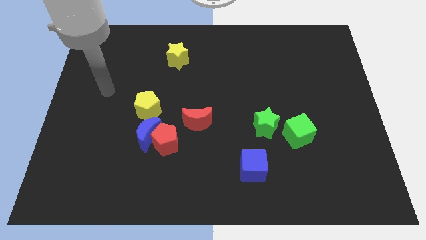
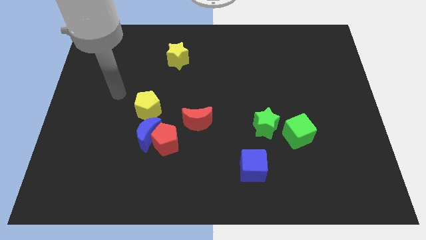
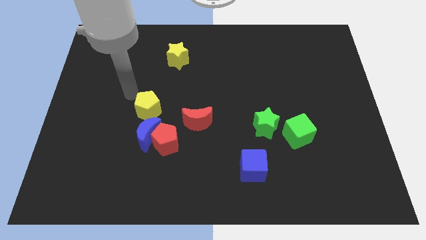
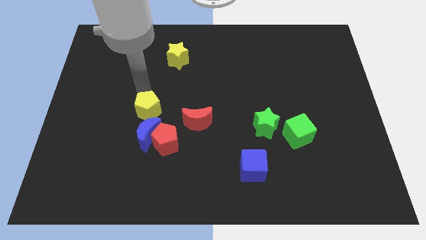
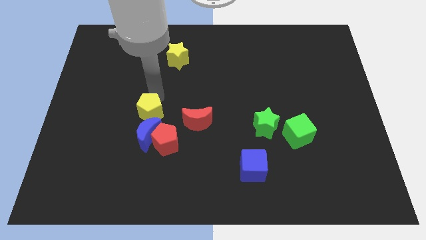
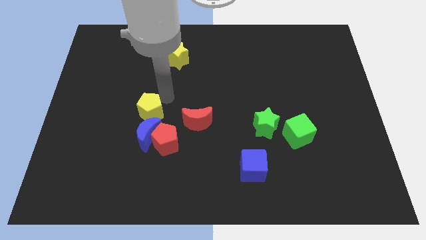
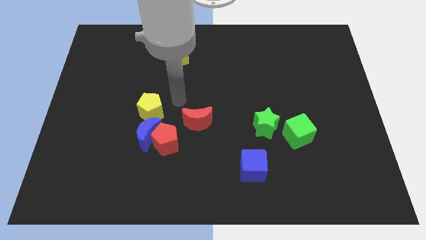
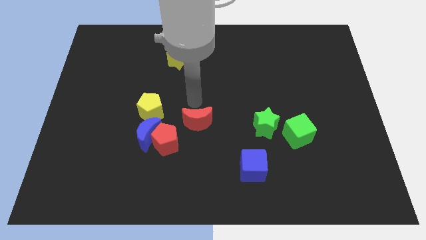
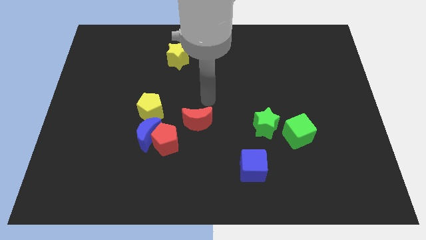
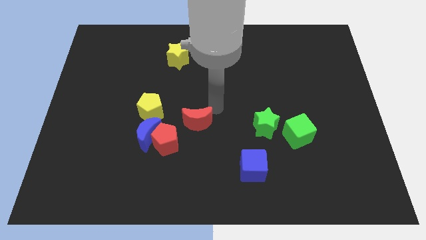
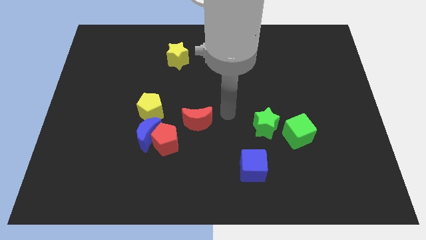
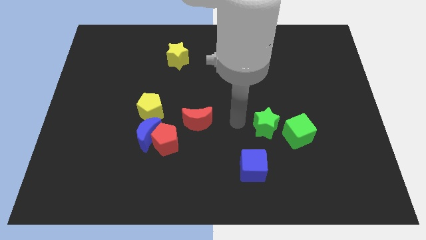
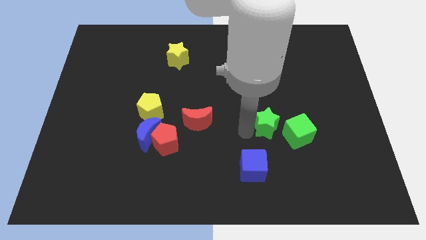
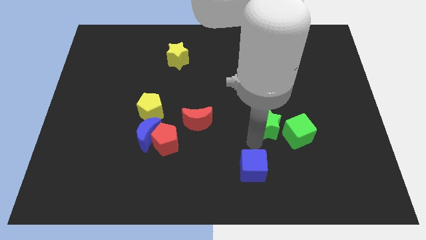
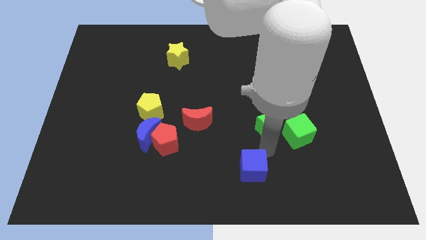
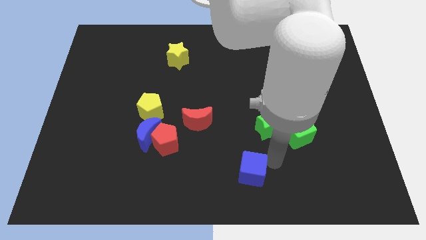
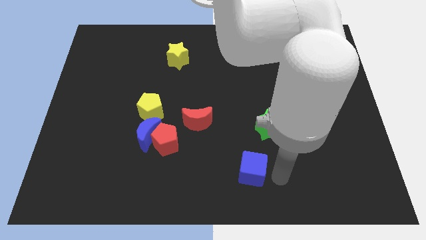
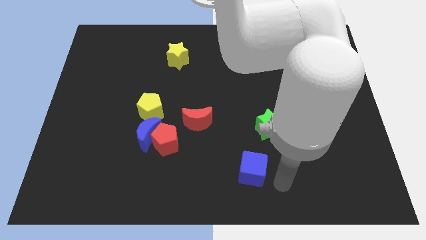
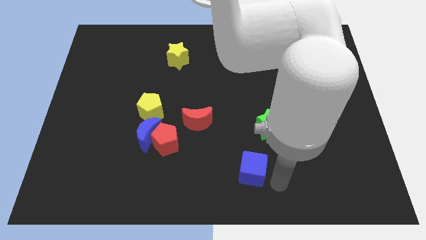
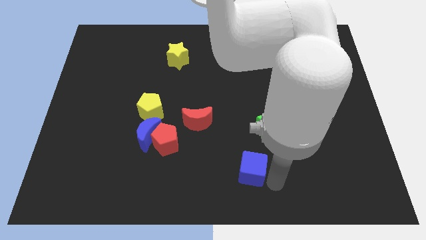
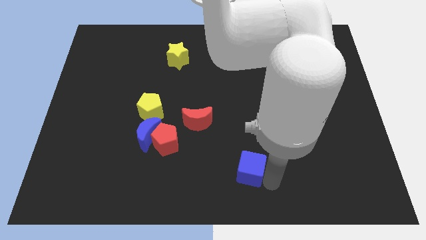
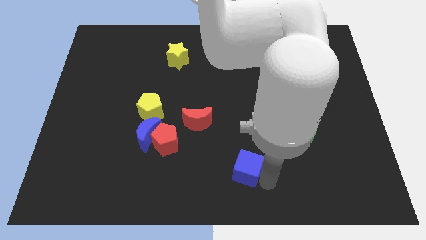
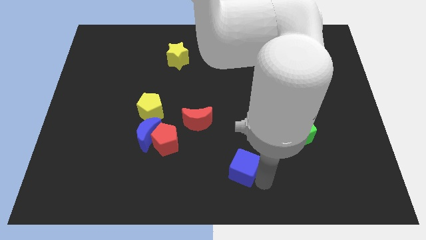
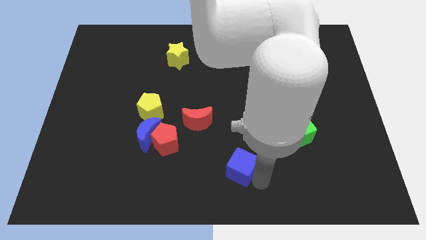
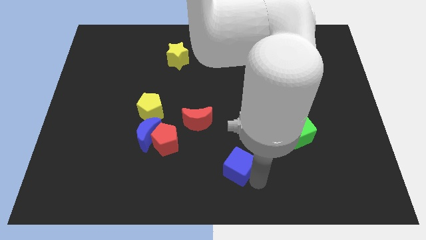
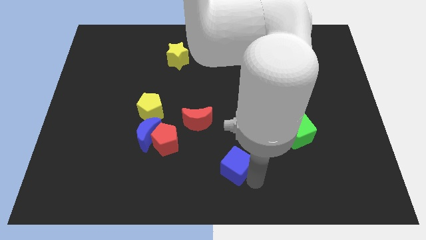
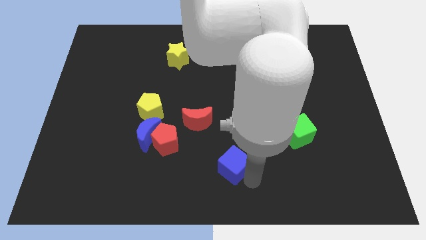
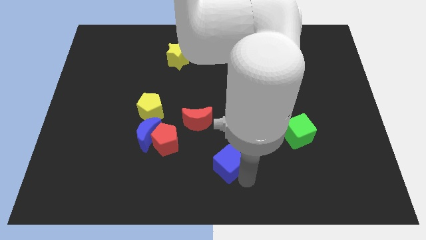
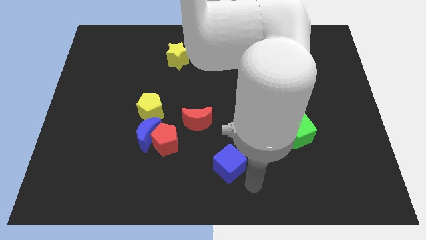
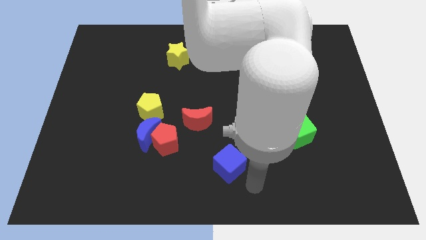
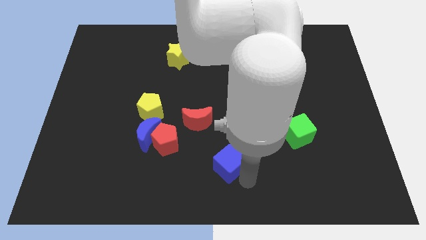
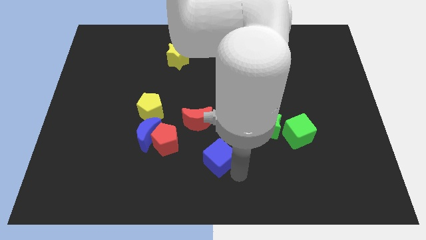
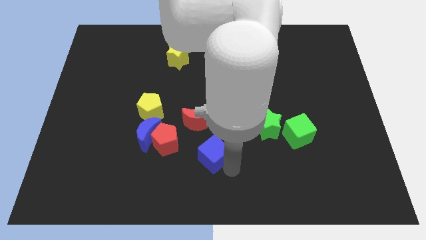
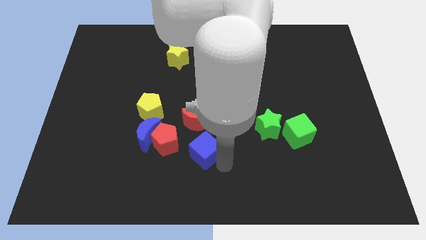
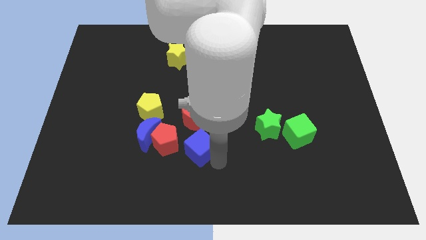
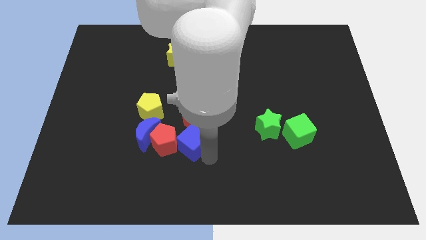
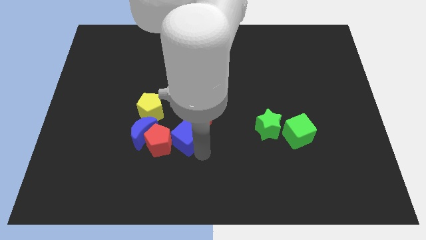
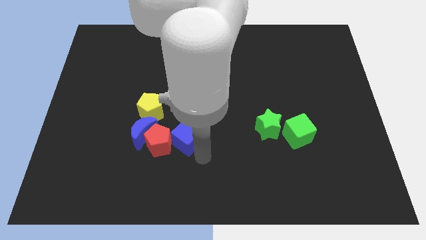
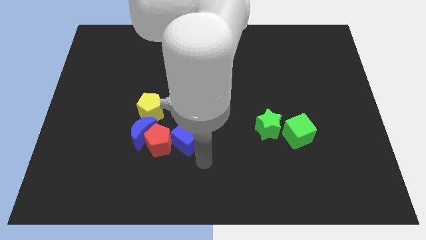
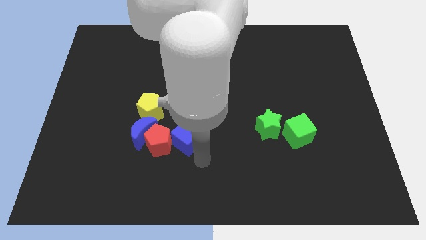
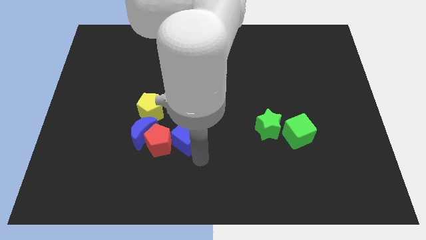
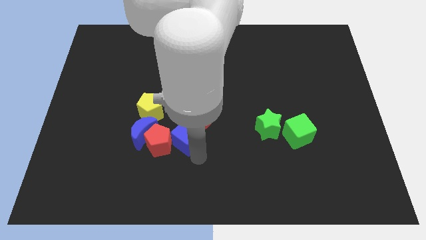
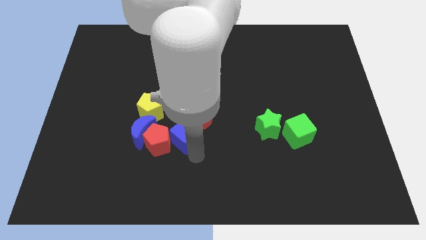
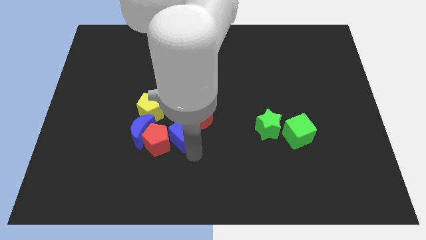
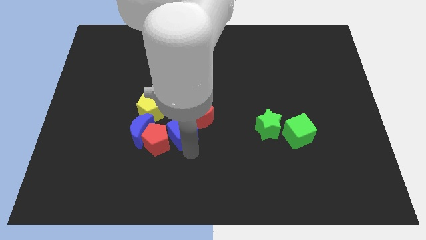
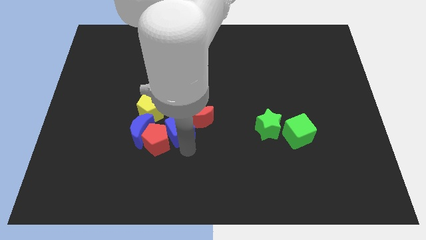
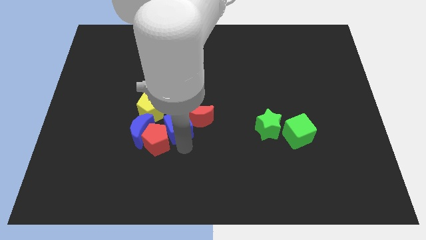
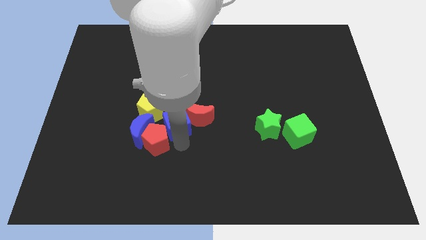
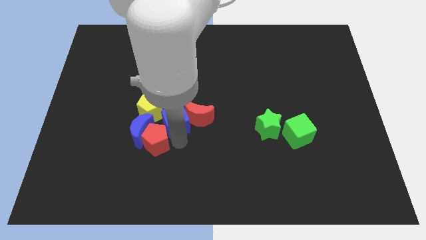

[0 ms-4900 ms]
put the blue cube to the top left of the red moon

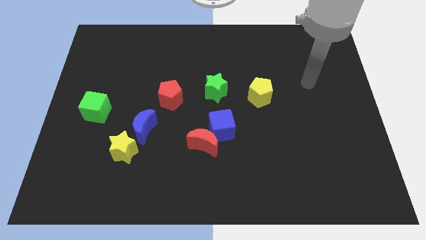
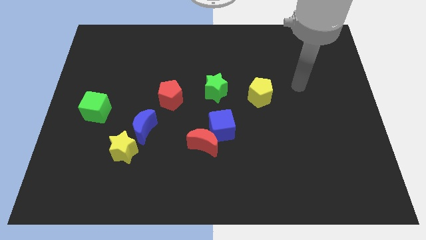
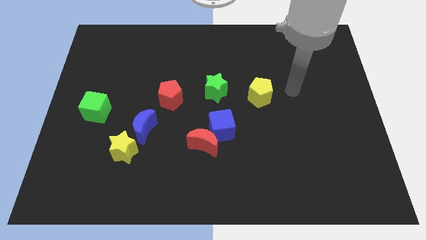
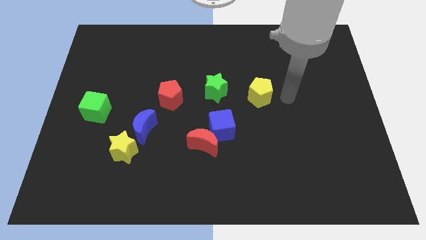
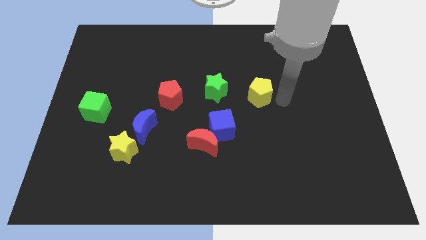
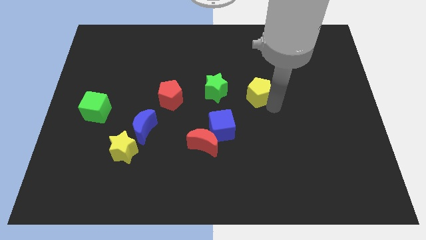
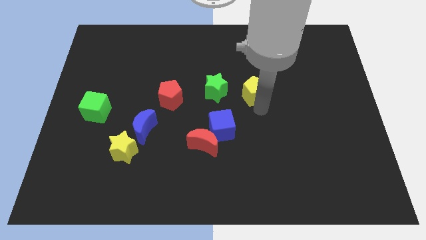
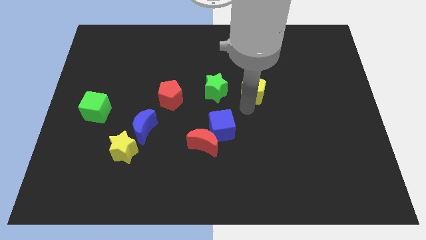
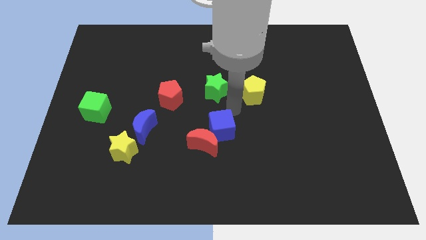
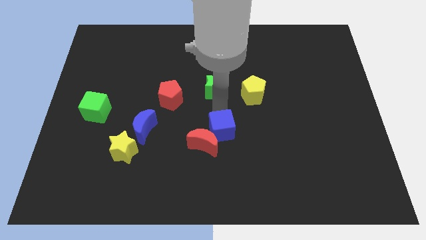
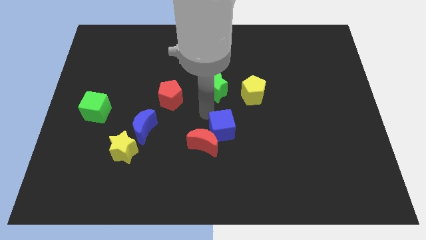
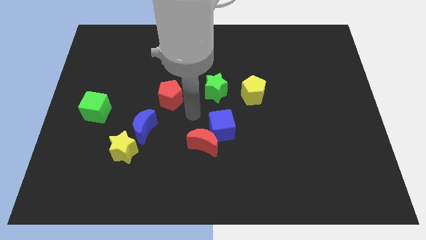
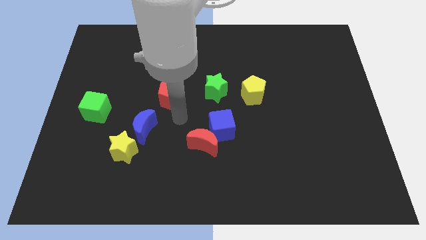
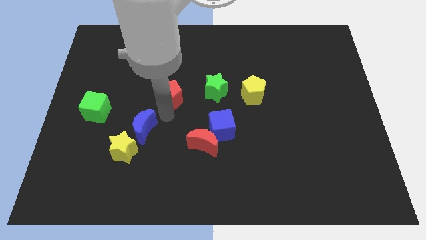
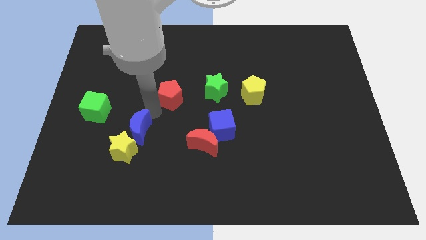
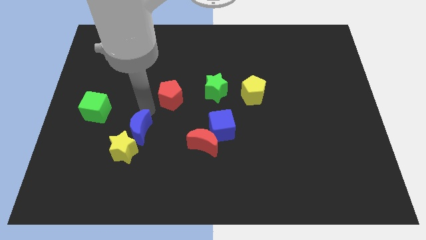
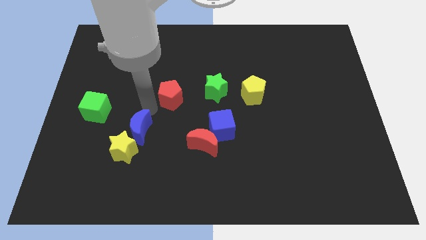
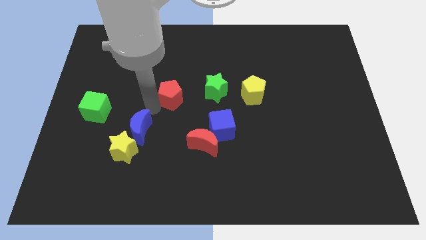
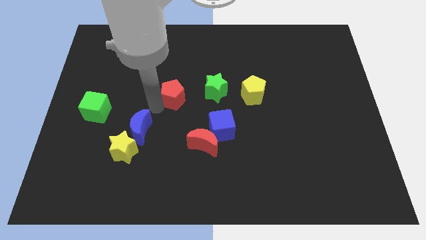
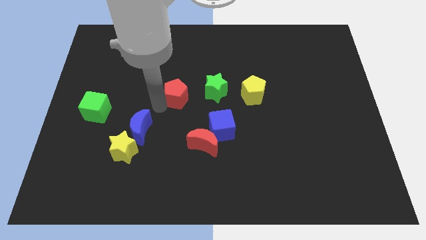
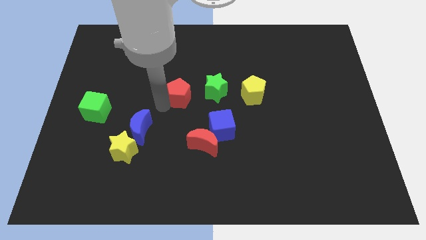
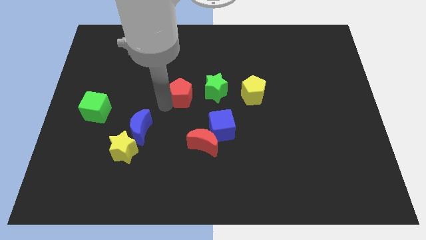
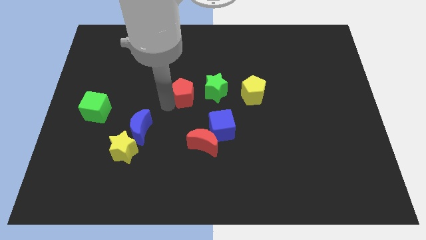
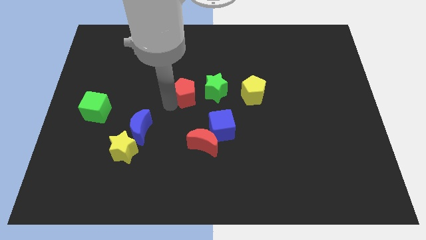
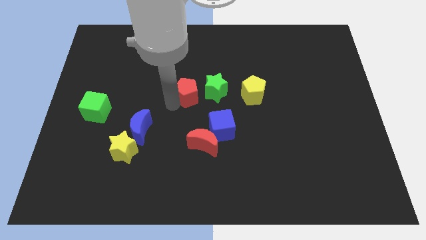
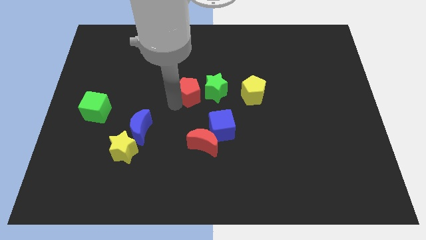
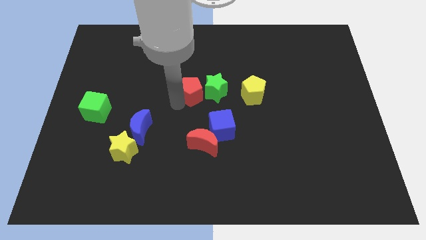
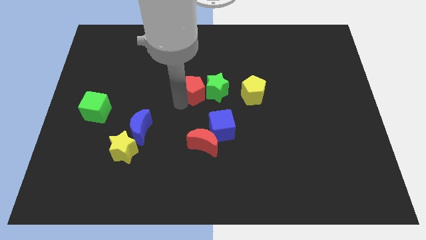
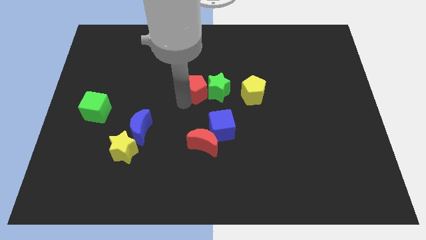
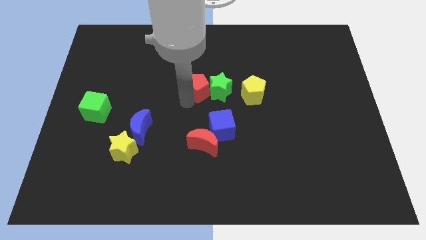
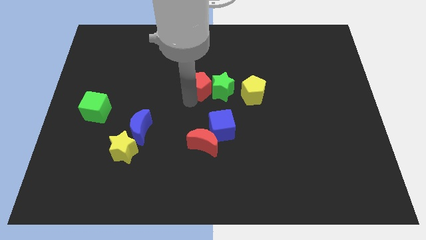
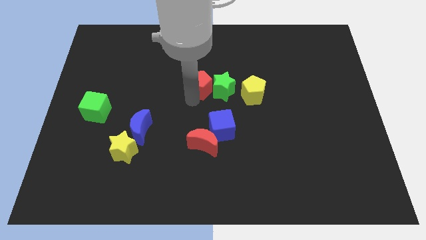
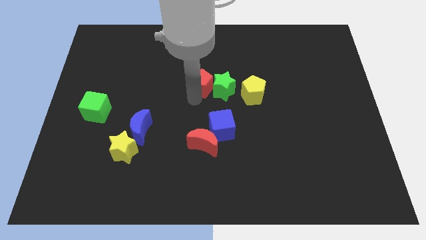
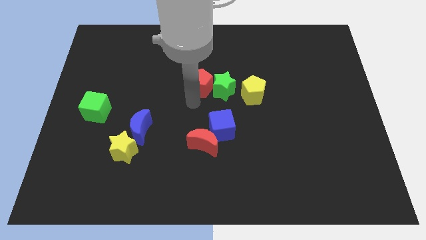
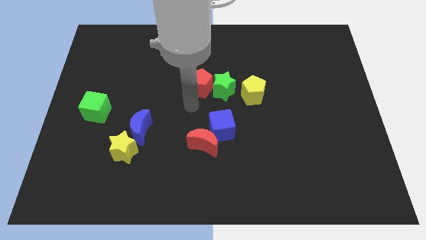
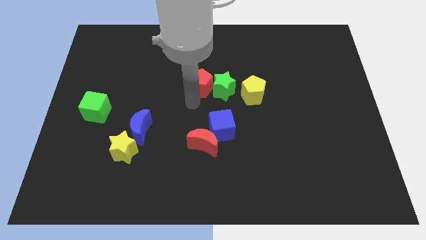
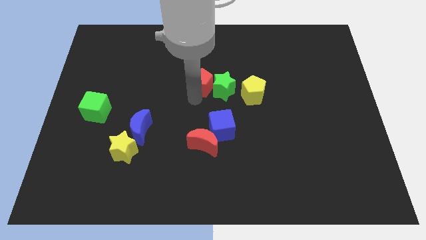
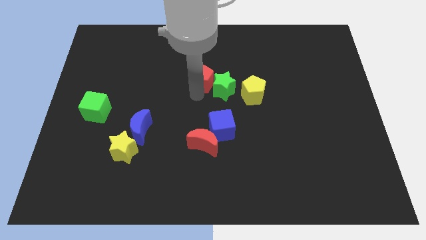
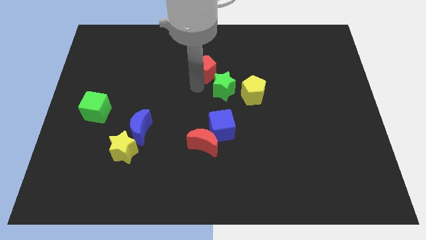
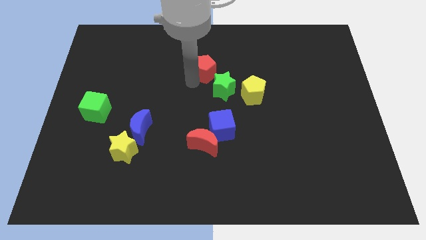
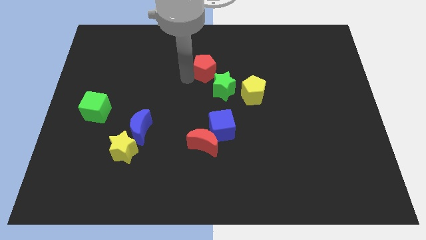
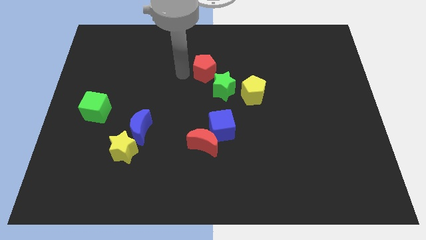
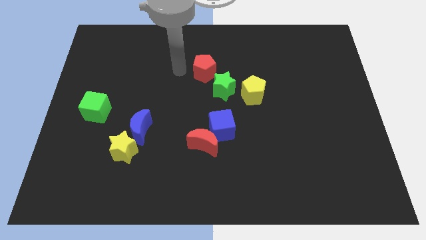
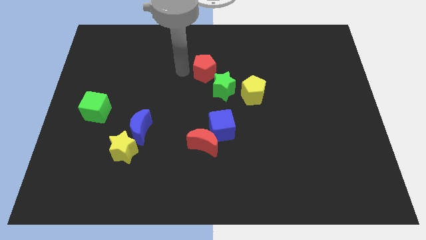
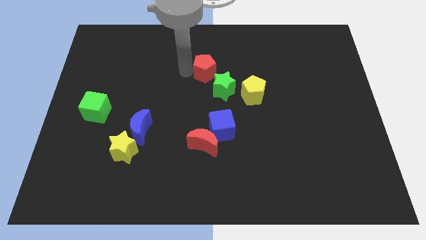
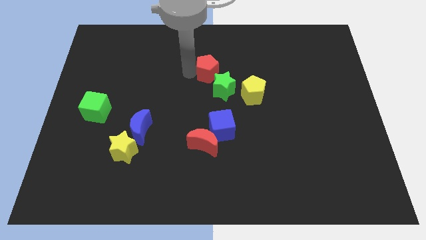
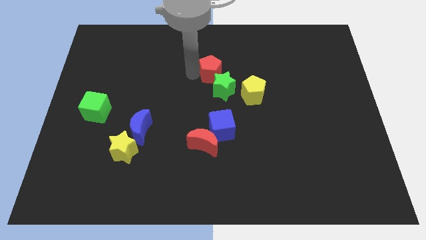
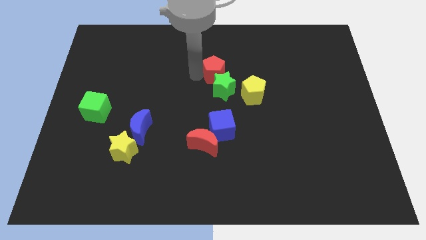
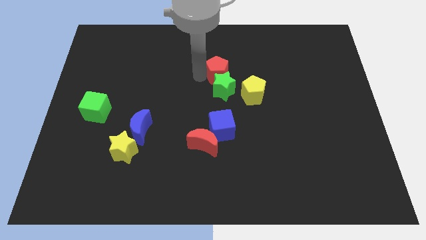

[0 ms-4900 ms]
move the red pentagon to the top right of the green star
